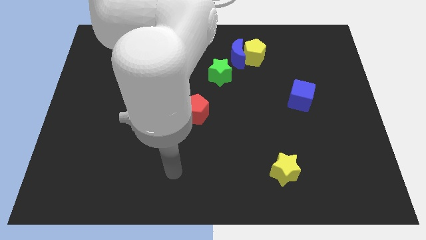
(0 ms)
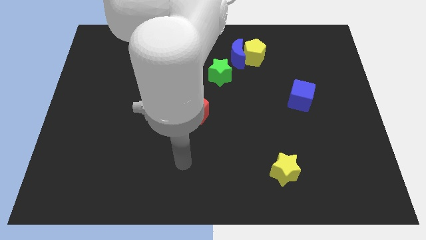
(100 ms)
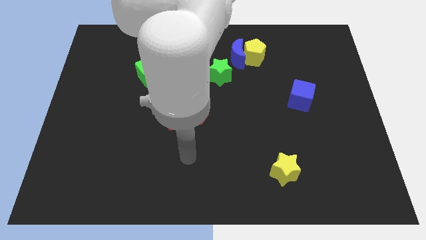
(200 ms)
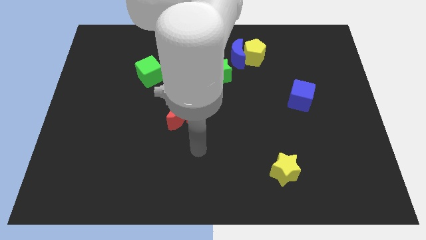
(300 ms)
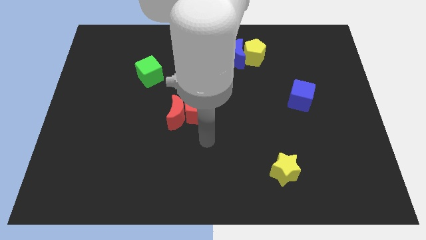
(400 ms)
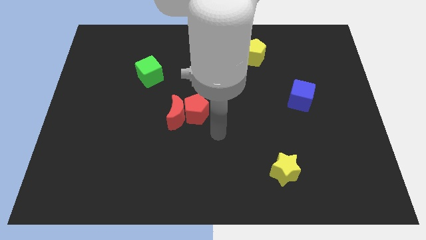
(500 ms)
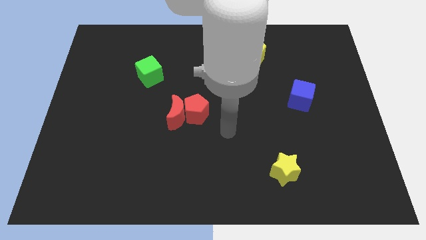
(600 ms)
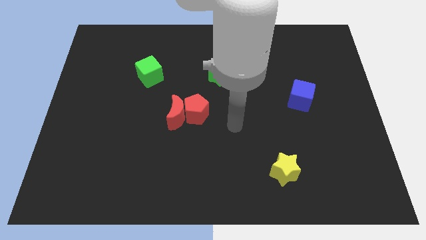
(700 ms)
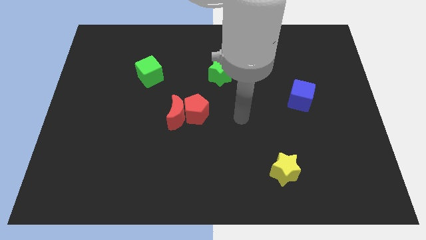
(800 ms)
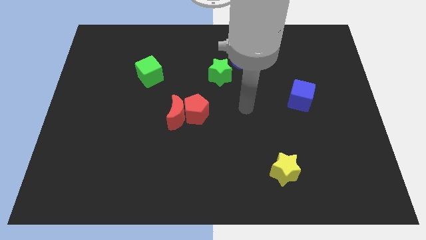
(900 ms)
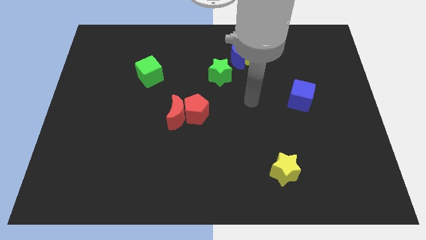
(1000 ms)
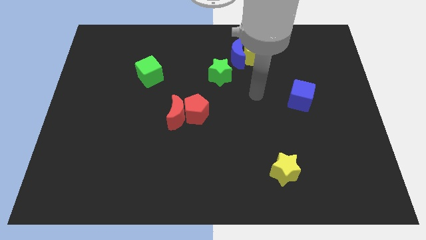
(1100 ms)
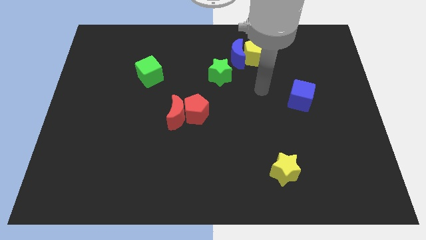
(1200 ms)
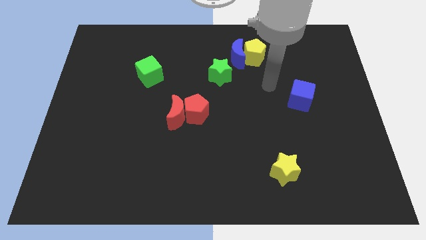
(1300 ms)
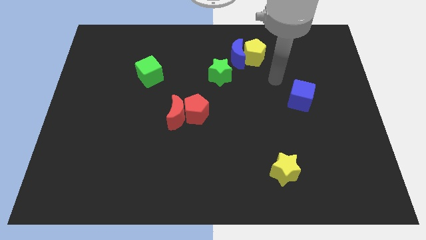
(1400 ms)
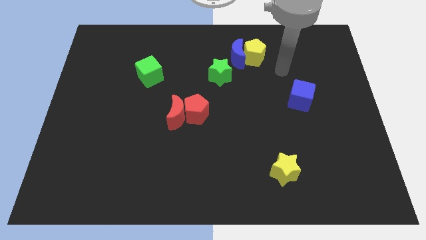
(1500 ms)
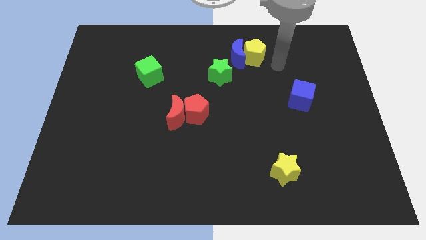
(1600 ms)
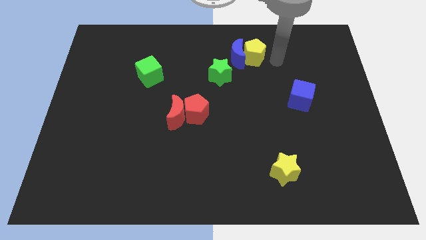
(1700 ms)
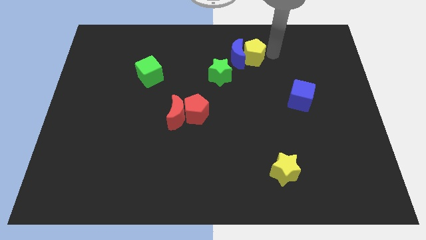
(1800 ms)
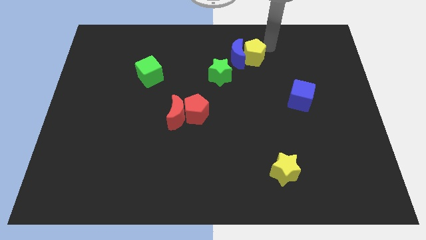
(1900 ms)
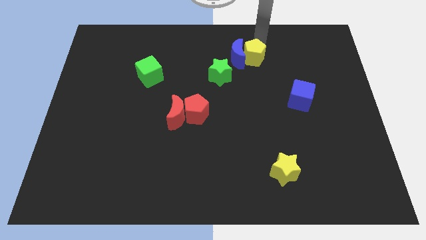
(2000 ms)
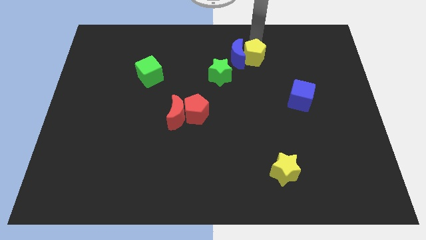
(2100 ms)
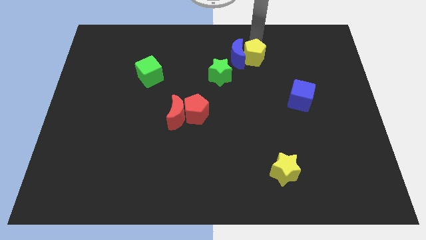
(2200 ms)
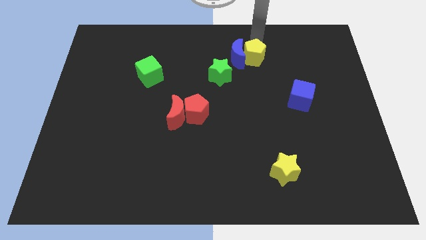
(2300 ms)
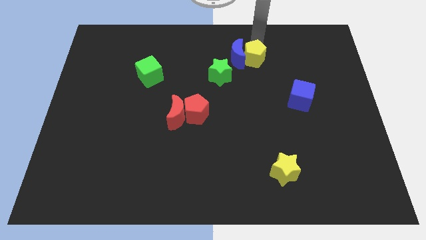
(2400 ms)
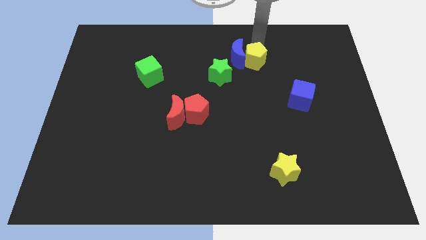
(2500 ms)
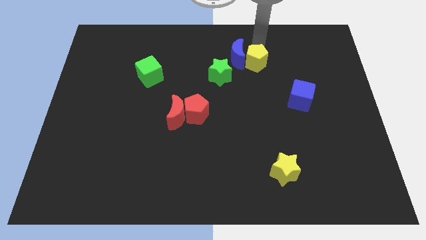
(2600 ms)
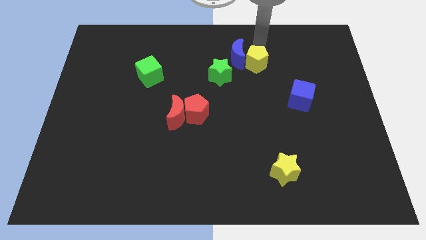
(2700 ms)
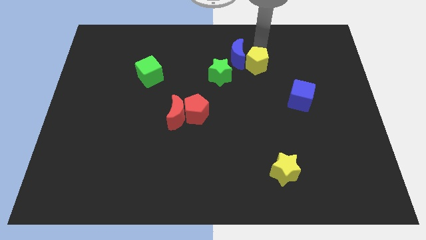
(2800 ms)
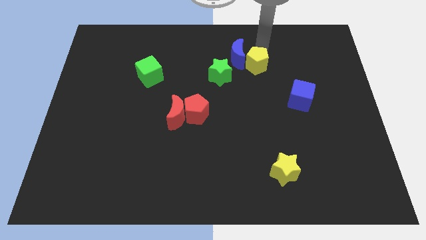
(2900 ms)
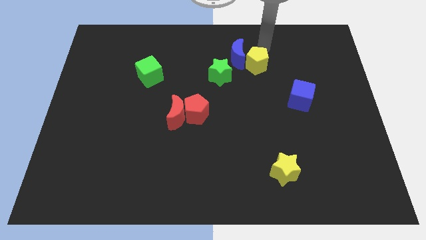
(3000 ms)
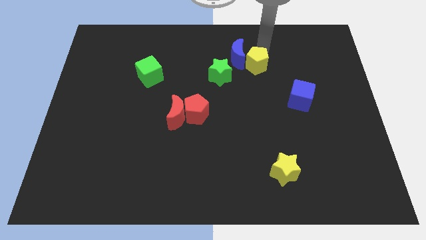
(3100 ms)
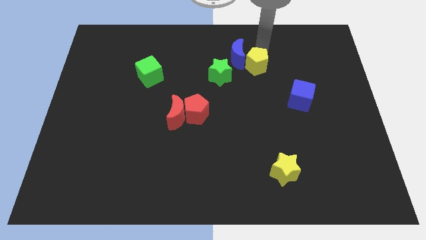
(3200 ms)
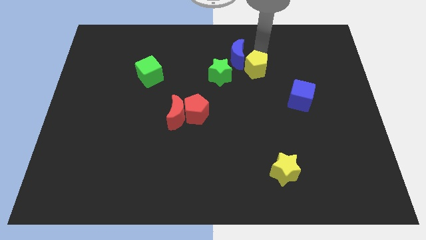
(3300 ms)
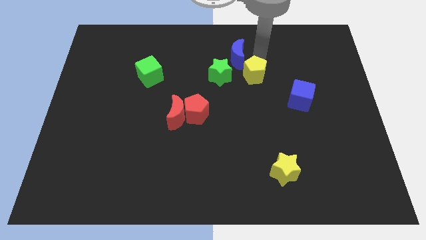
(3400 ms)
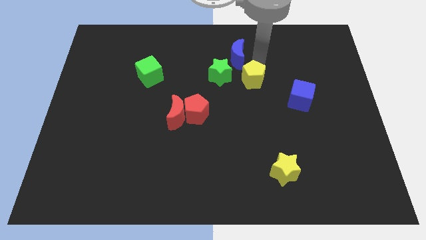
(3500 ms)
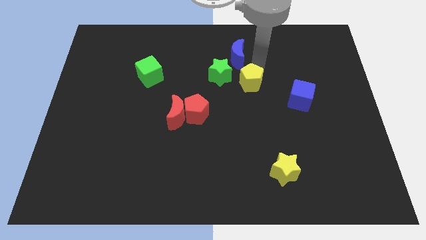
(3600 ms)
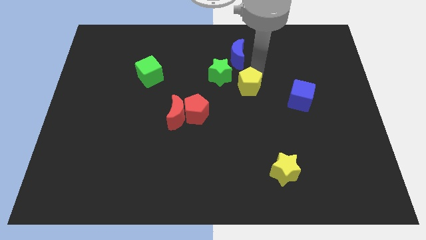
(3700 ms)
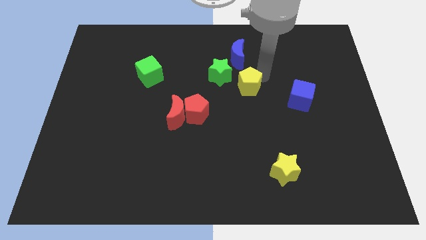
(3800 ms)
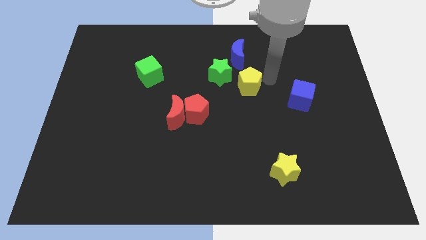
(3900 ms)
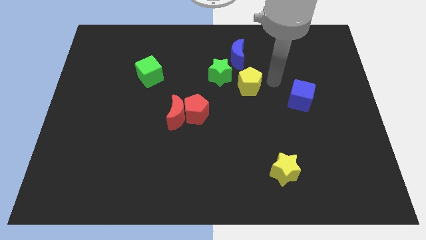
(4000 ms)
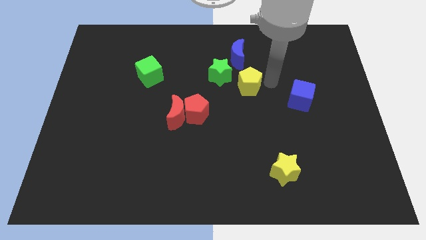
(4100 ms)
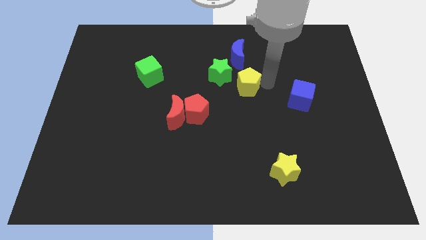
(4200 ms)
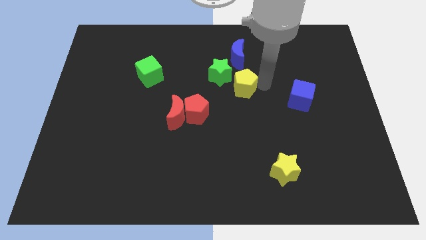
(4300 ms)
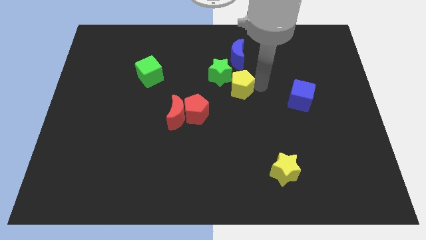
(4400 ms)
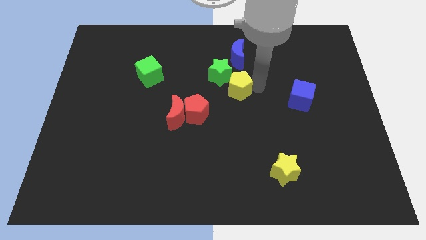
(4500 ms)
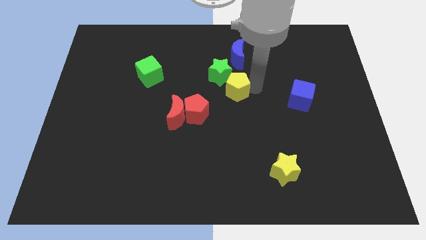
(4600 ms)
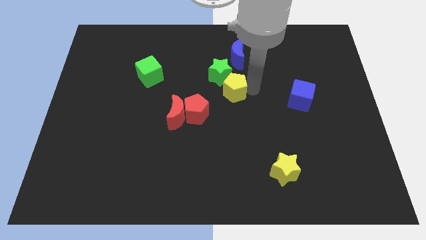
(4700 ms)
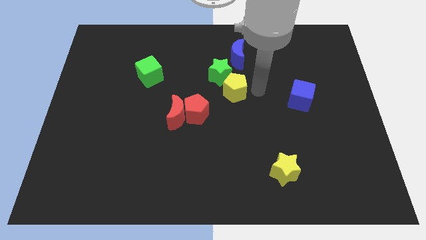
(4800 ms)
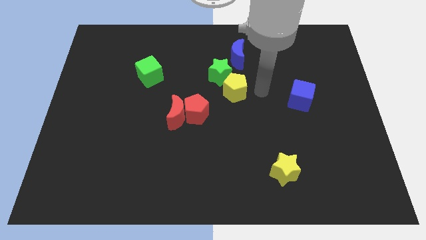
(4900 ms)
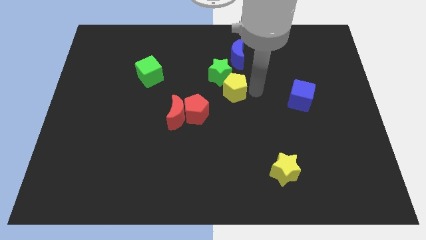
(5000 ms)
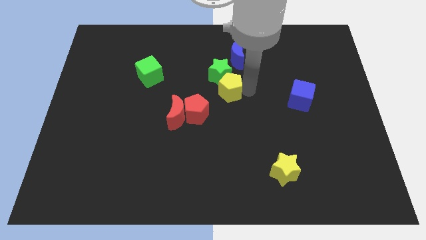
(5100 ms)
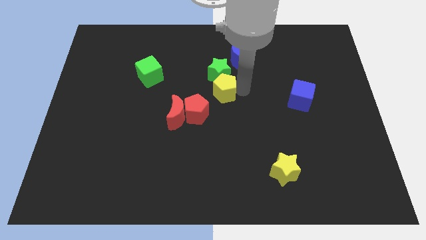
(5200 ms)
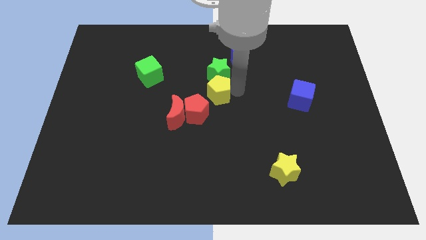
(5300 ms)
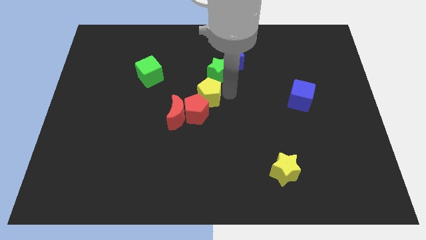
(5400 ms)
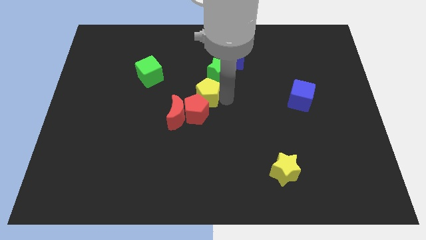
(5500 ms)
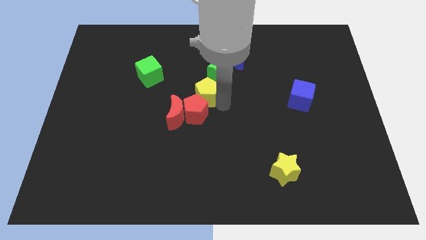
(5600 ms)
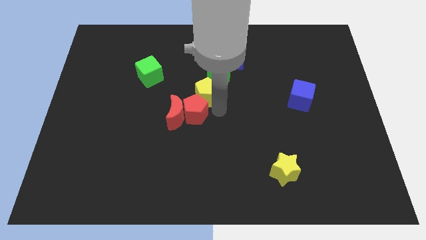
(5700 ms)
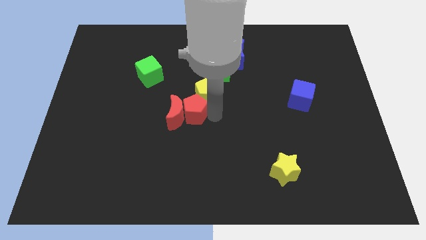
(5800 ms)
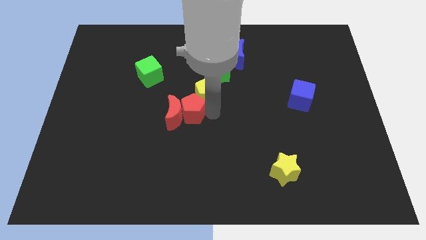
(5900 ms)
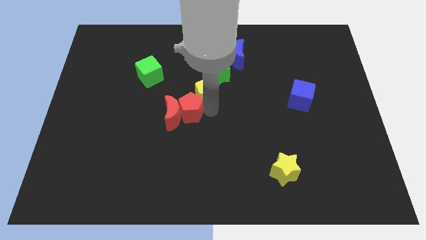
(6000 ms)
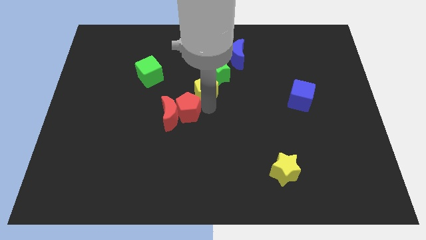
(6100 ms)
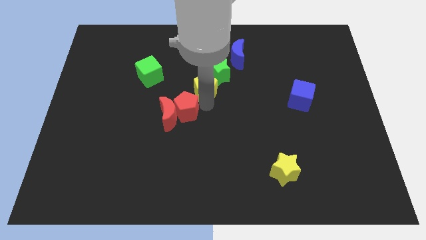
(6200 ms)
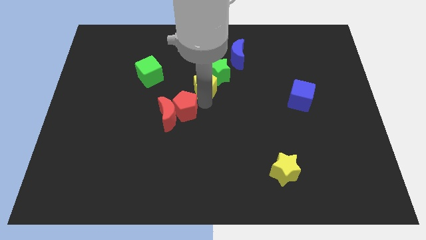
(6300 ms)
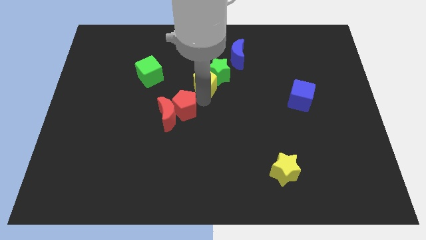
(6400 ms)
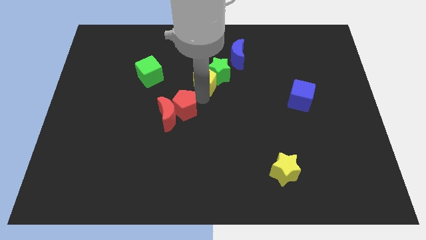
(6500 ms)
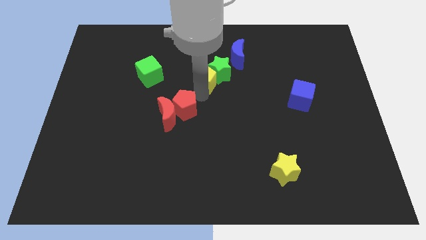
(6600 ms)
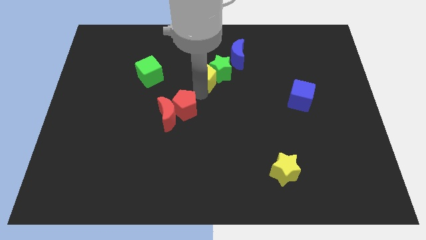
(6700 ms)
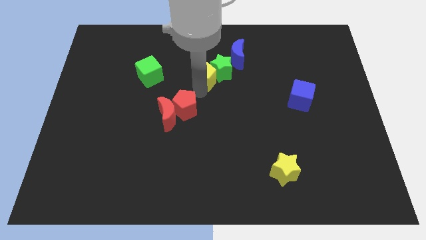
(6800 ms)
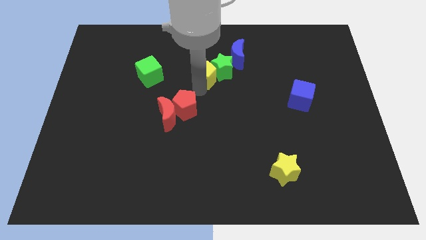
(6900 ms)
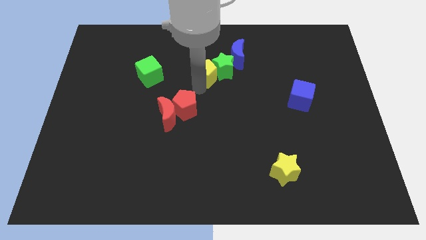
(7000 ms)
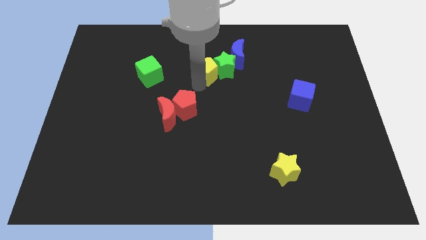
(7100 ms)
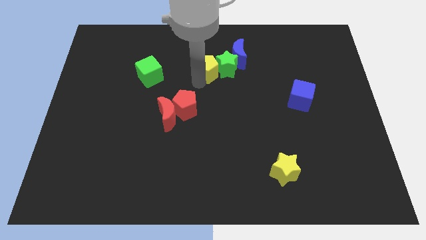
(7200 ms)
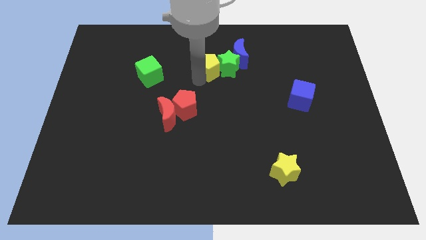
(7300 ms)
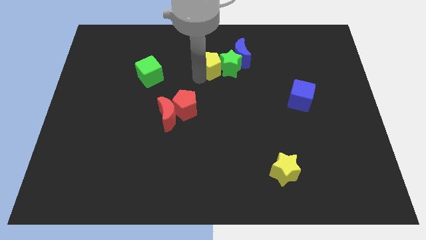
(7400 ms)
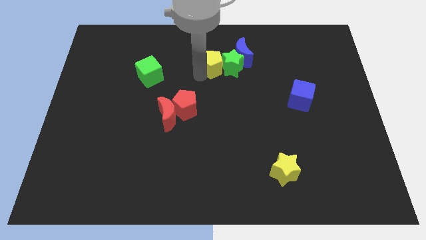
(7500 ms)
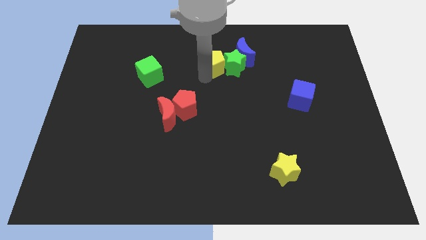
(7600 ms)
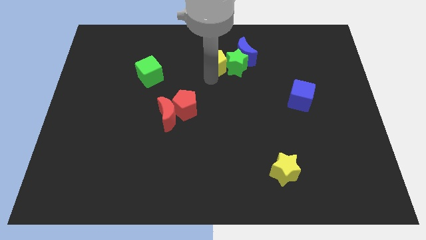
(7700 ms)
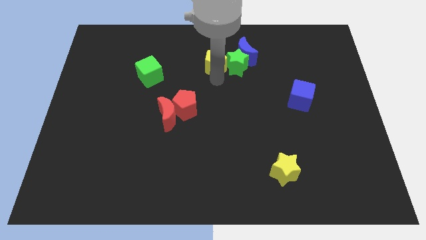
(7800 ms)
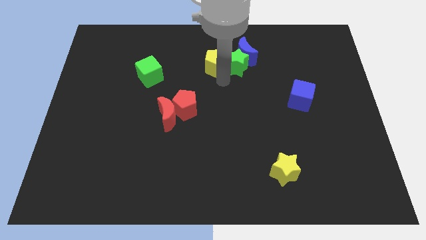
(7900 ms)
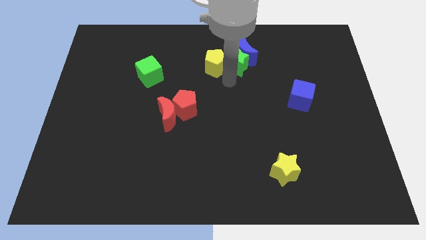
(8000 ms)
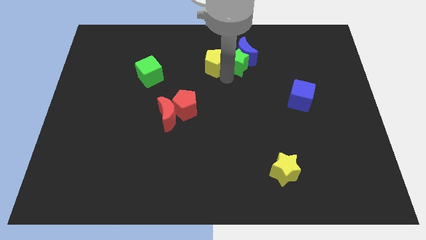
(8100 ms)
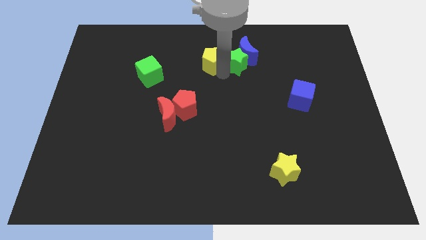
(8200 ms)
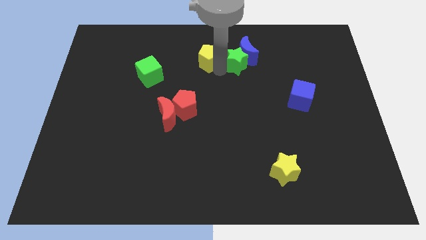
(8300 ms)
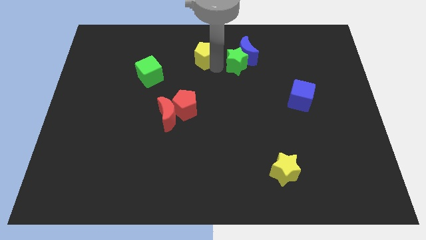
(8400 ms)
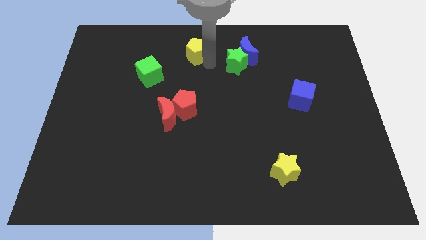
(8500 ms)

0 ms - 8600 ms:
push the yellow pentagon to the top side
